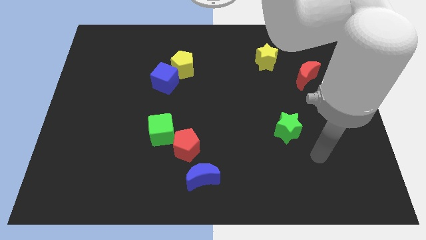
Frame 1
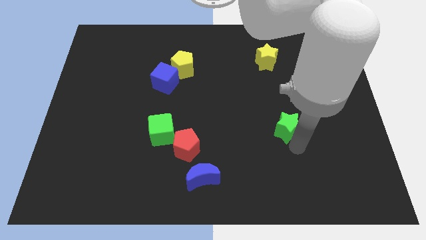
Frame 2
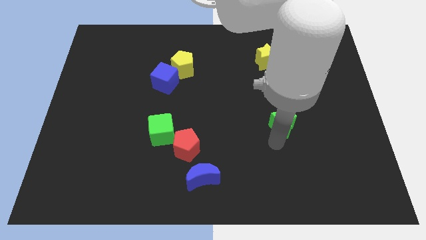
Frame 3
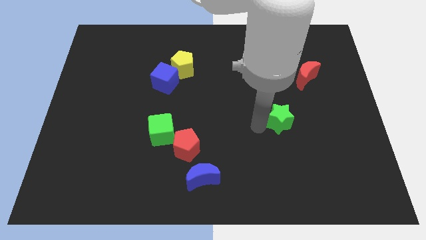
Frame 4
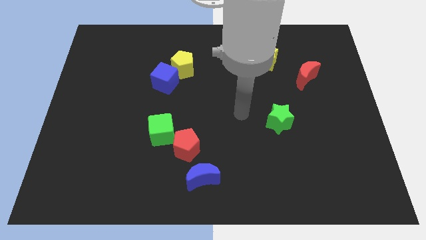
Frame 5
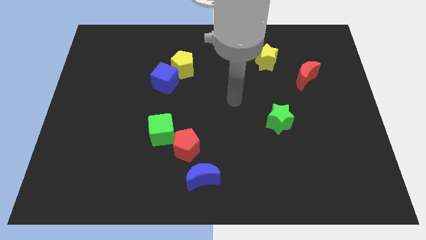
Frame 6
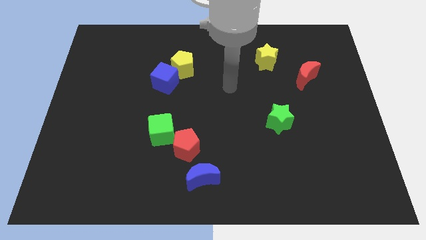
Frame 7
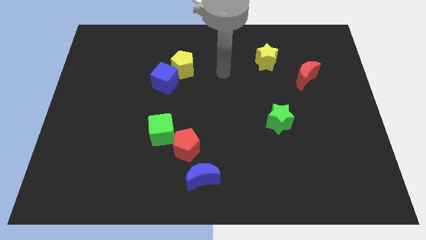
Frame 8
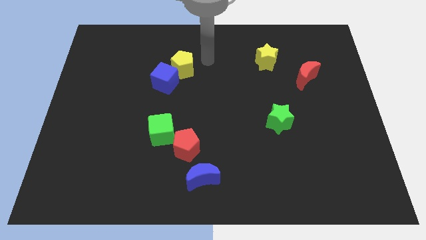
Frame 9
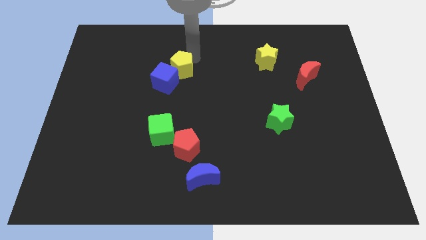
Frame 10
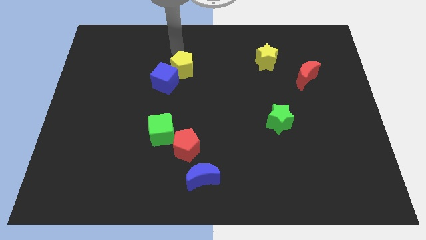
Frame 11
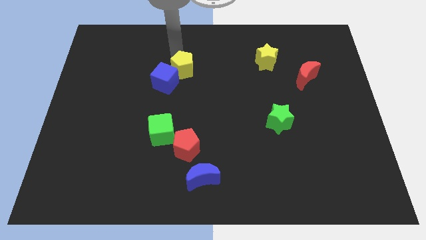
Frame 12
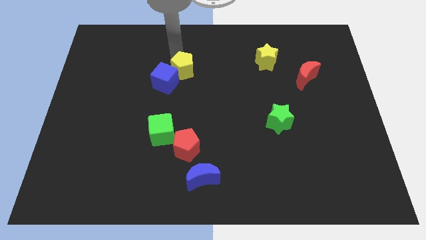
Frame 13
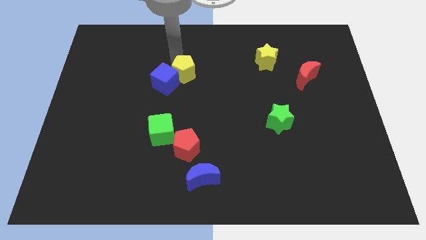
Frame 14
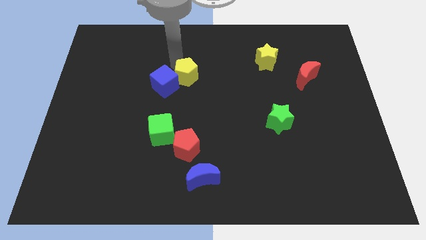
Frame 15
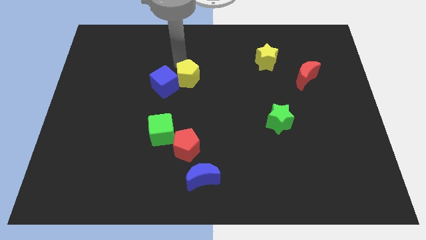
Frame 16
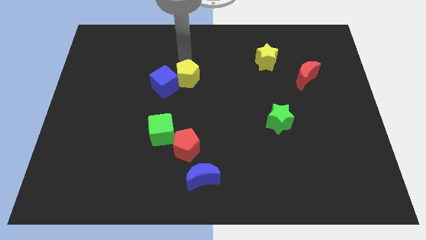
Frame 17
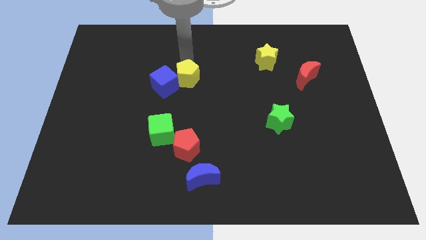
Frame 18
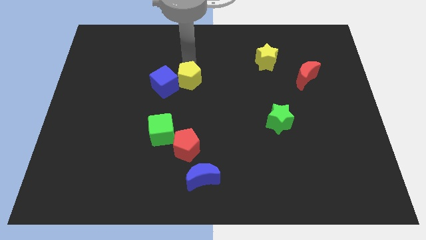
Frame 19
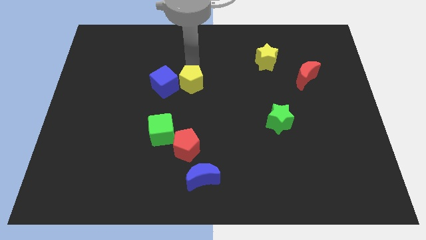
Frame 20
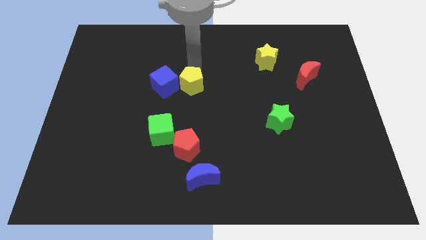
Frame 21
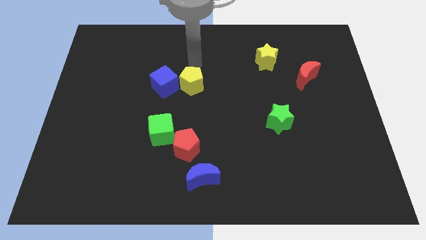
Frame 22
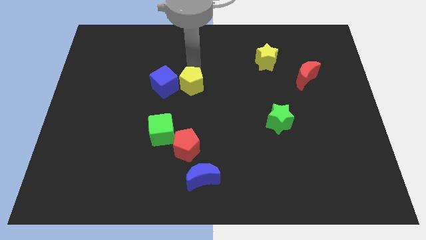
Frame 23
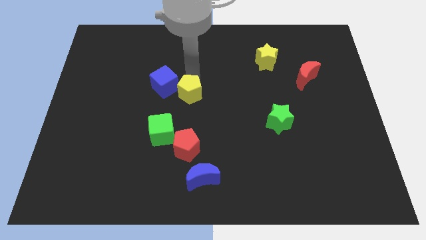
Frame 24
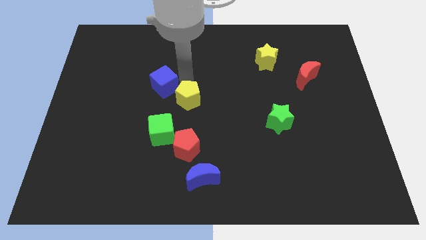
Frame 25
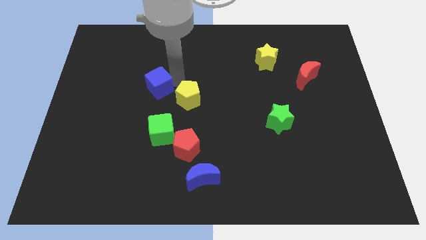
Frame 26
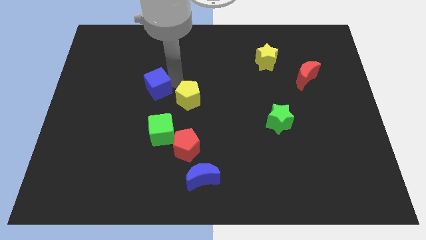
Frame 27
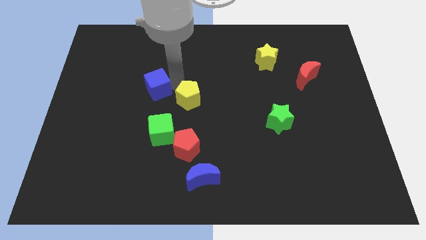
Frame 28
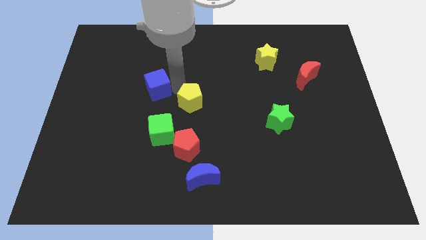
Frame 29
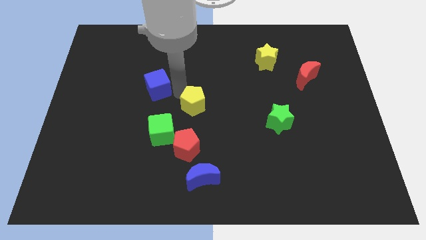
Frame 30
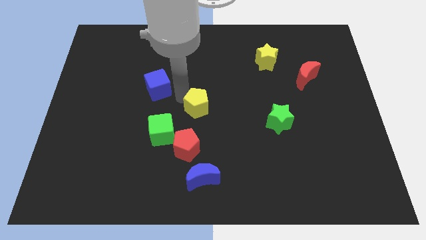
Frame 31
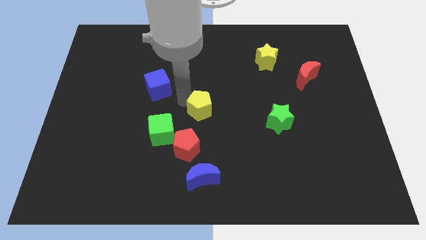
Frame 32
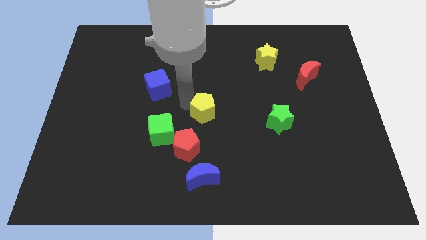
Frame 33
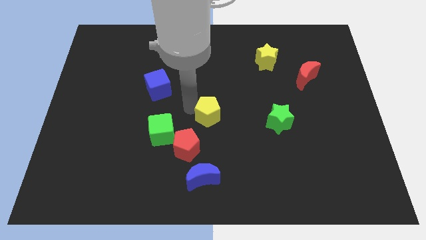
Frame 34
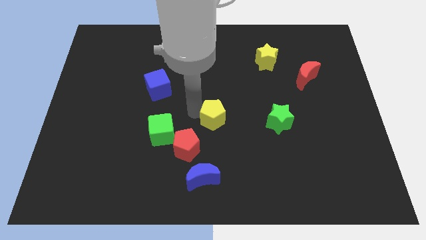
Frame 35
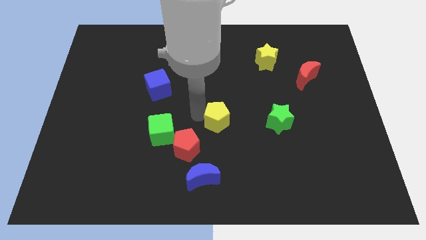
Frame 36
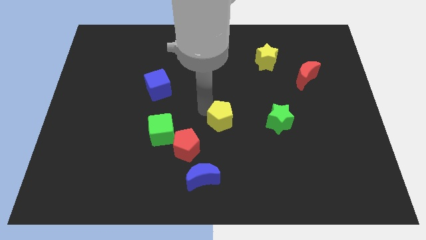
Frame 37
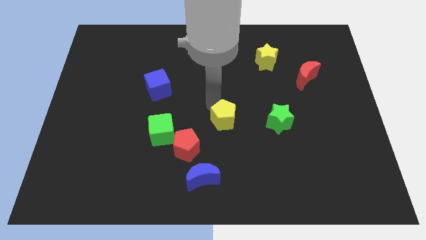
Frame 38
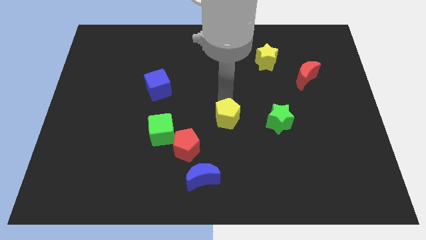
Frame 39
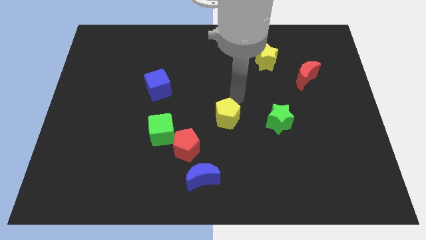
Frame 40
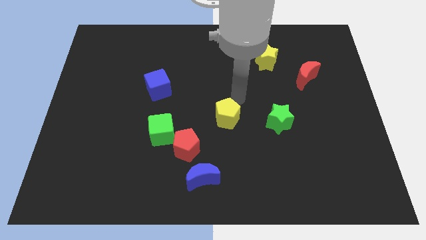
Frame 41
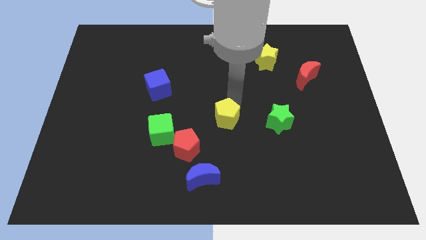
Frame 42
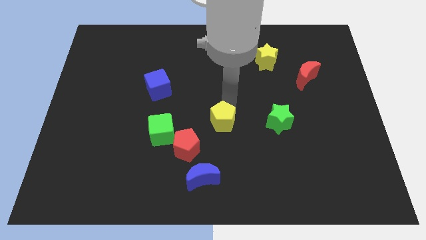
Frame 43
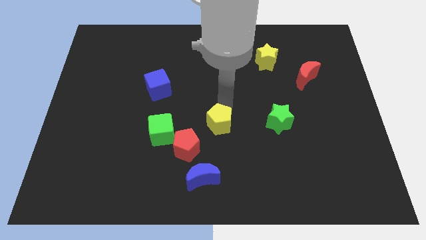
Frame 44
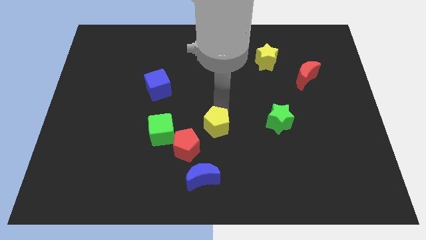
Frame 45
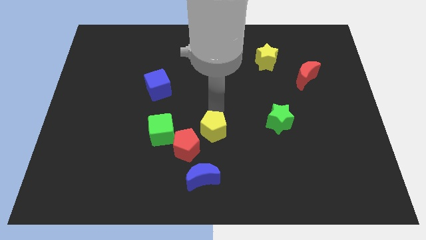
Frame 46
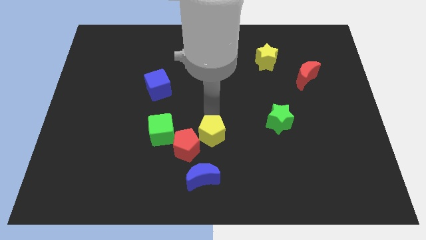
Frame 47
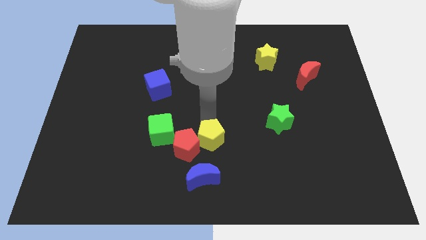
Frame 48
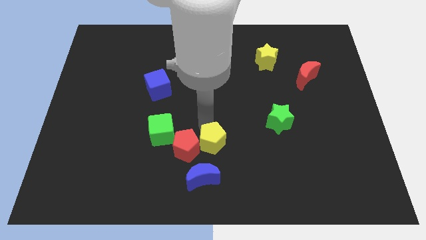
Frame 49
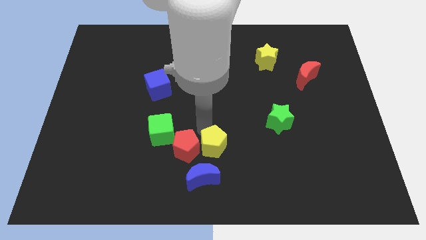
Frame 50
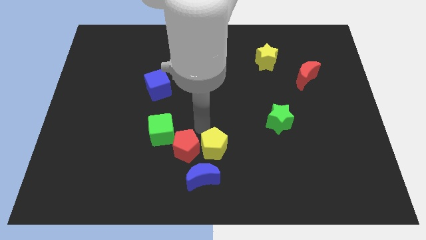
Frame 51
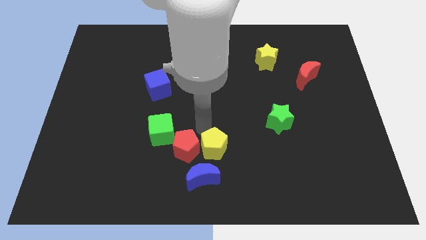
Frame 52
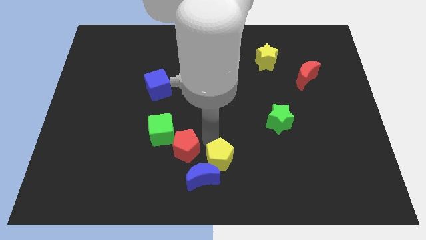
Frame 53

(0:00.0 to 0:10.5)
slide the yellow pentagon to the bottom side

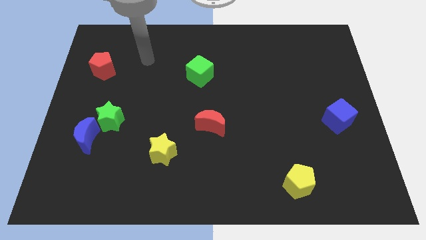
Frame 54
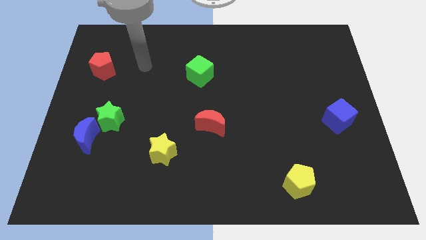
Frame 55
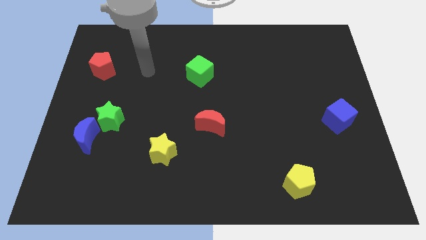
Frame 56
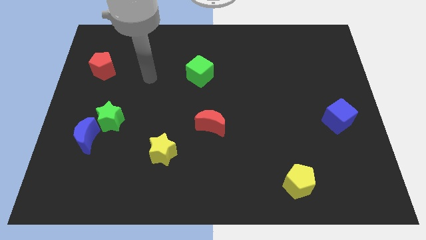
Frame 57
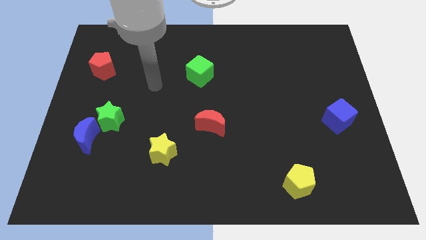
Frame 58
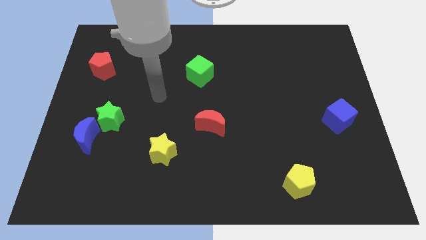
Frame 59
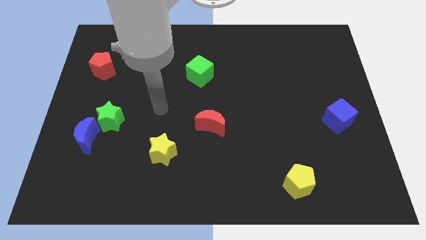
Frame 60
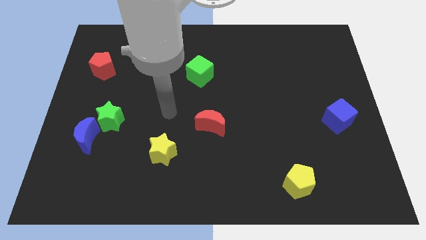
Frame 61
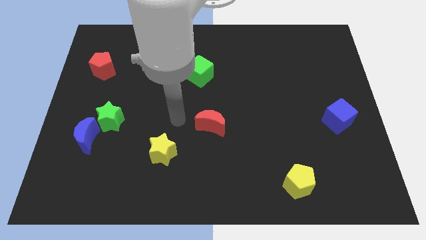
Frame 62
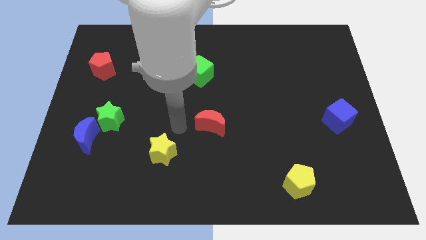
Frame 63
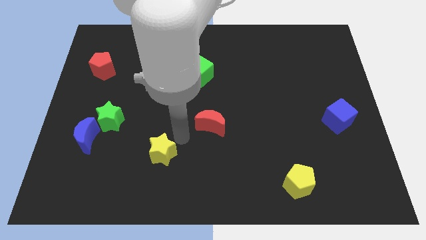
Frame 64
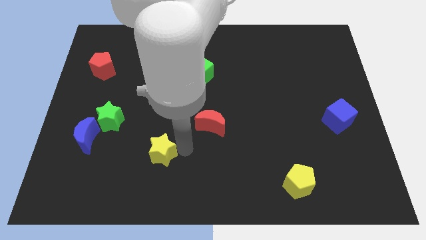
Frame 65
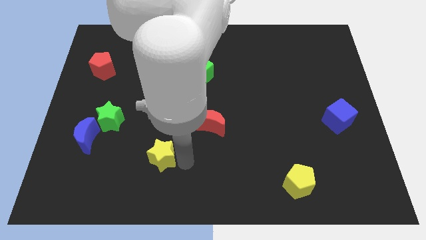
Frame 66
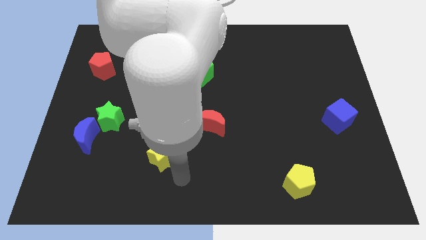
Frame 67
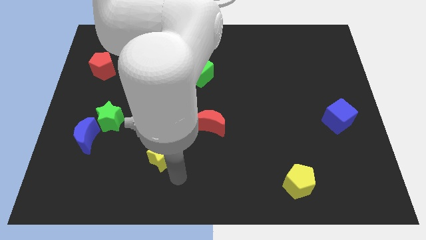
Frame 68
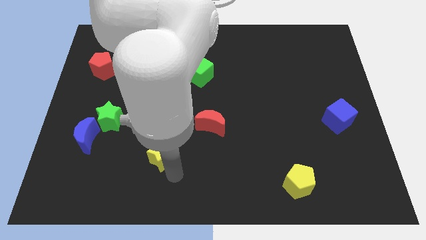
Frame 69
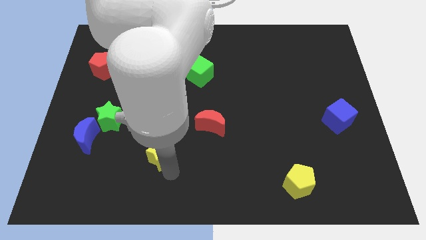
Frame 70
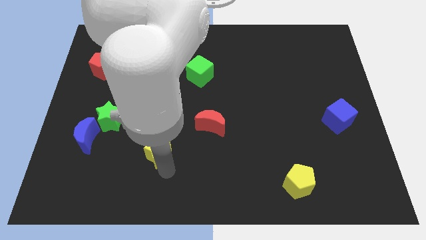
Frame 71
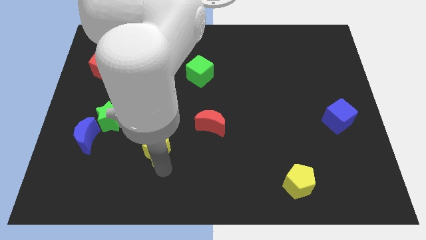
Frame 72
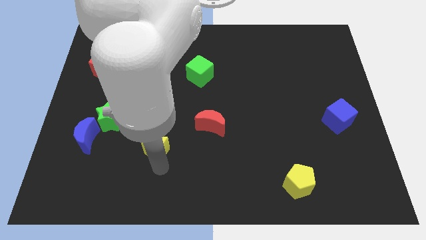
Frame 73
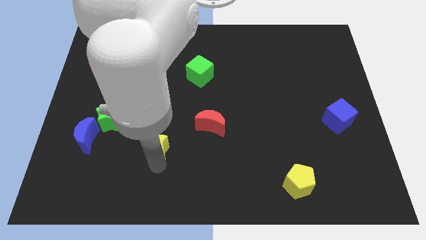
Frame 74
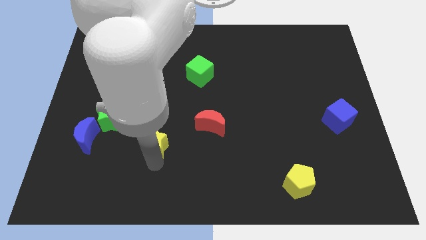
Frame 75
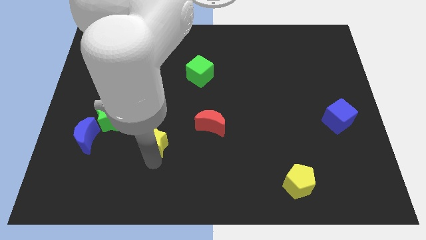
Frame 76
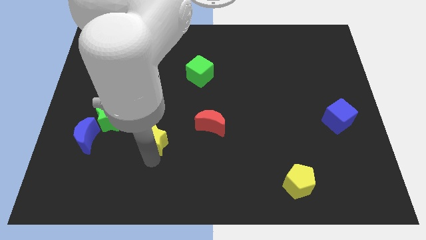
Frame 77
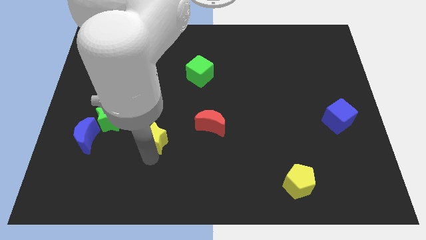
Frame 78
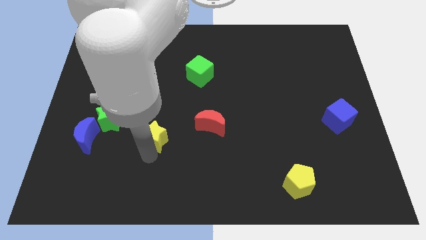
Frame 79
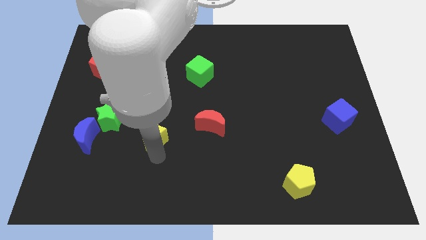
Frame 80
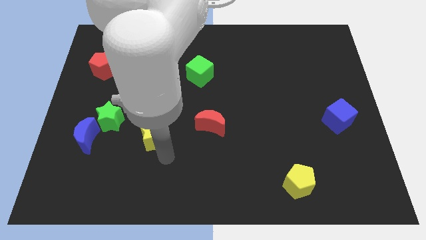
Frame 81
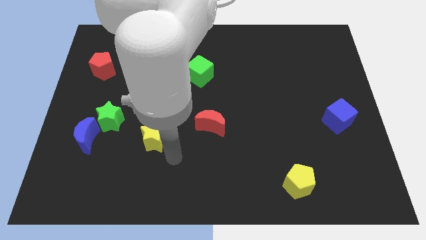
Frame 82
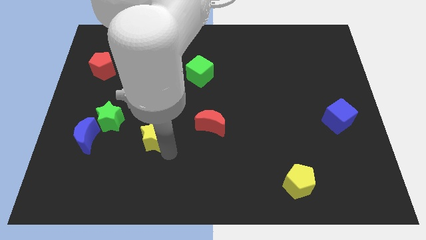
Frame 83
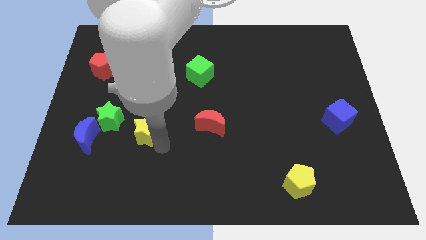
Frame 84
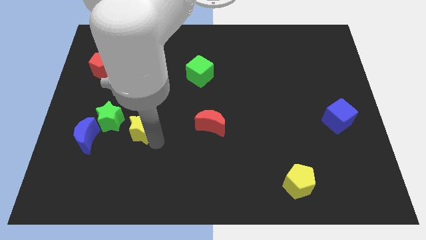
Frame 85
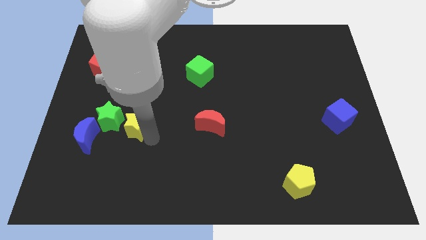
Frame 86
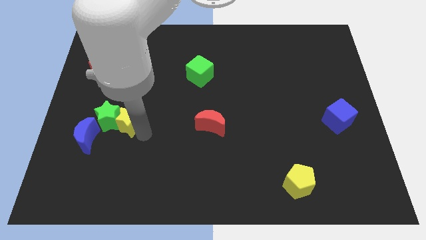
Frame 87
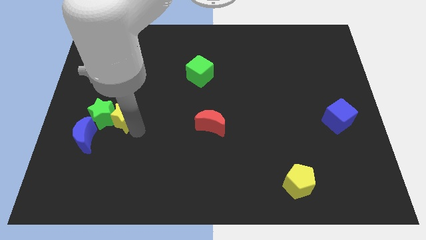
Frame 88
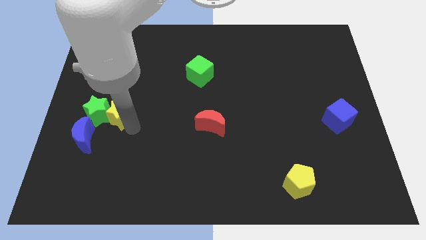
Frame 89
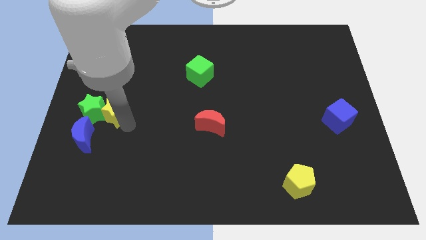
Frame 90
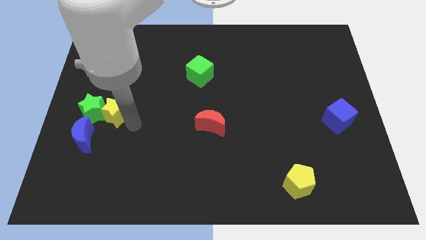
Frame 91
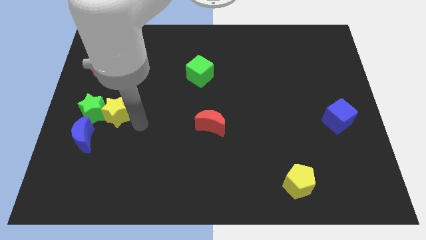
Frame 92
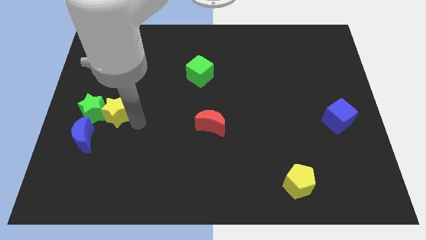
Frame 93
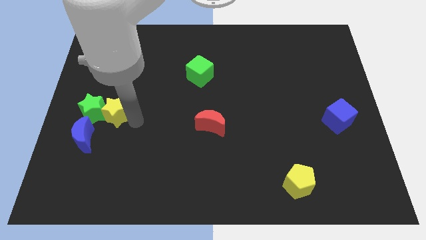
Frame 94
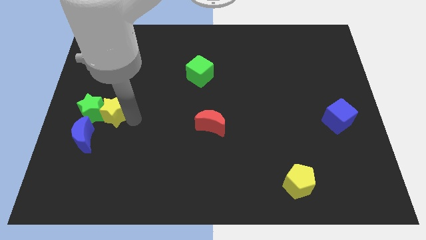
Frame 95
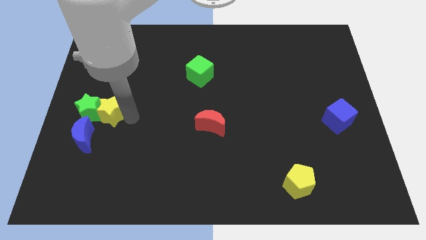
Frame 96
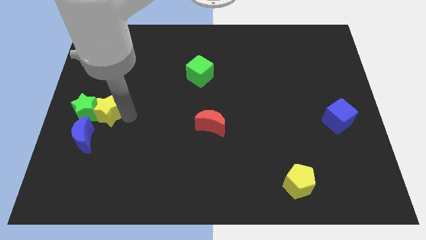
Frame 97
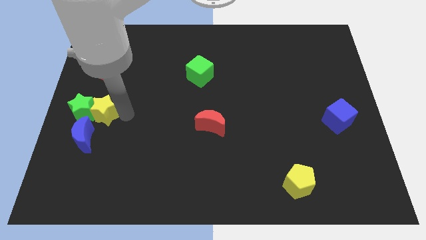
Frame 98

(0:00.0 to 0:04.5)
push the yellow star to the left side of the board
